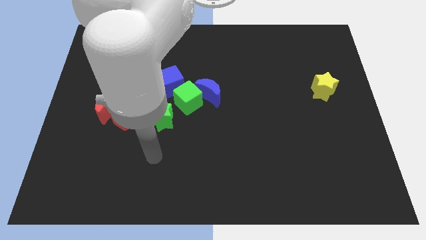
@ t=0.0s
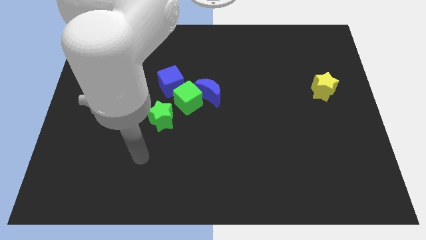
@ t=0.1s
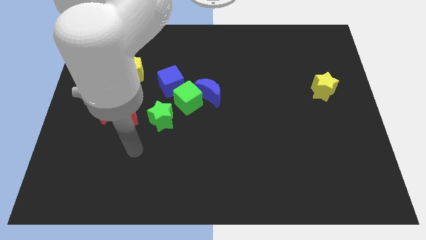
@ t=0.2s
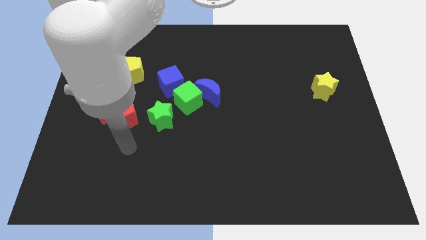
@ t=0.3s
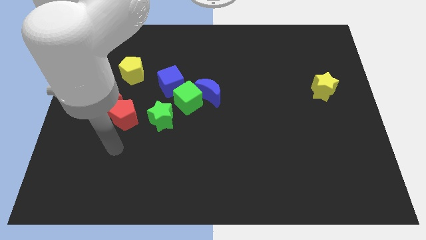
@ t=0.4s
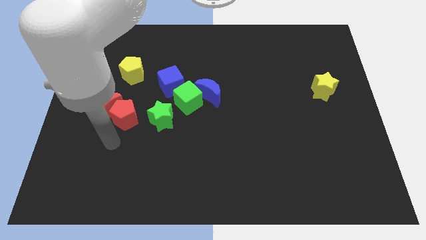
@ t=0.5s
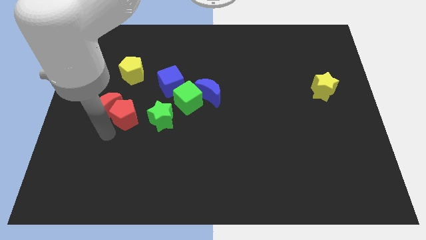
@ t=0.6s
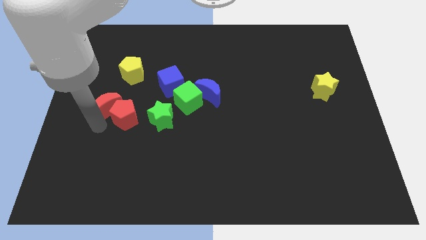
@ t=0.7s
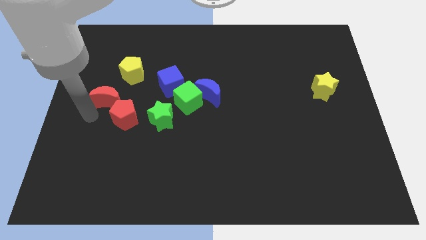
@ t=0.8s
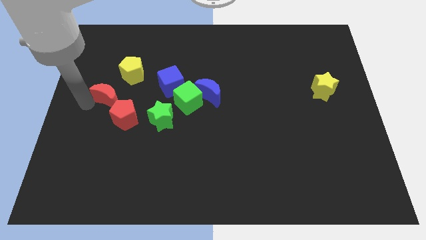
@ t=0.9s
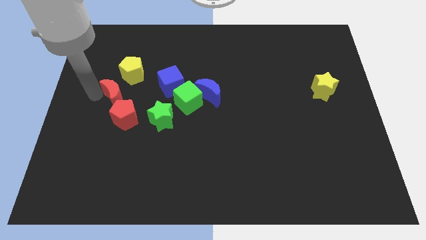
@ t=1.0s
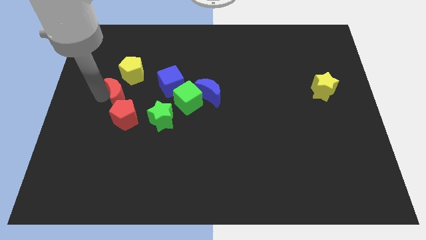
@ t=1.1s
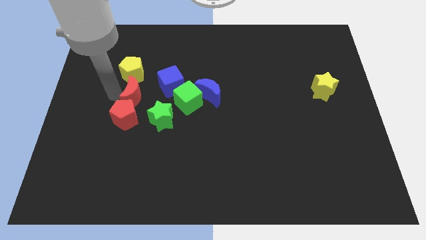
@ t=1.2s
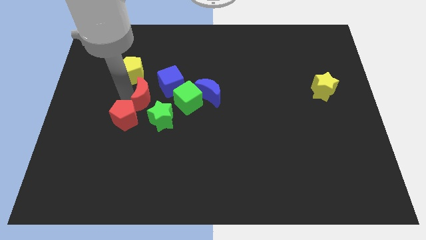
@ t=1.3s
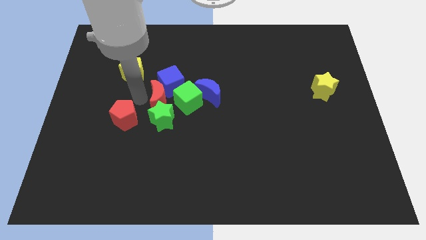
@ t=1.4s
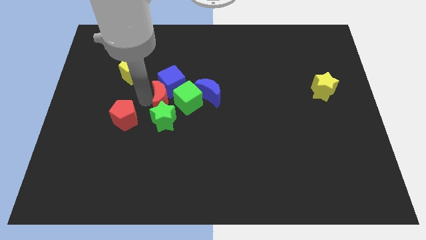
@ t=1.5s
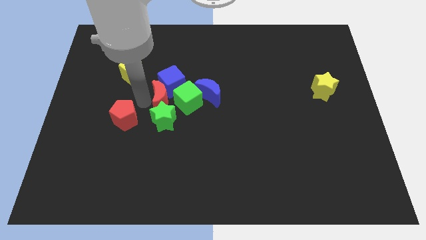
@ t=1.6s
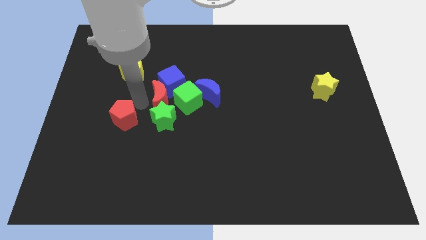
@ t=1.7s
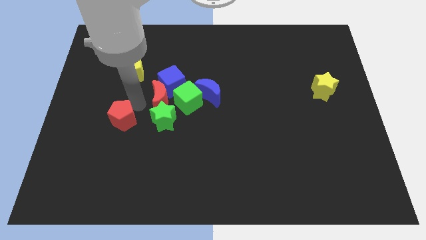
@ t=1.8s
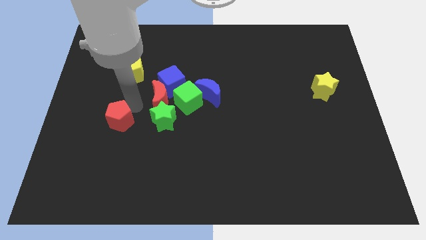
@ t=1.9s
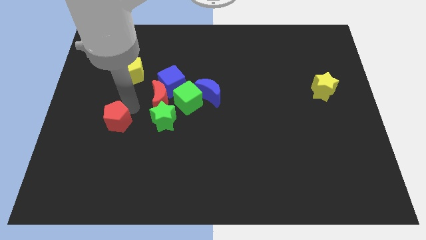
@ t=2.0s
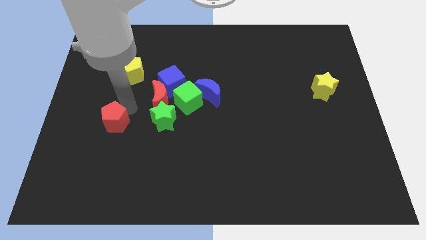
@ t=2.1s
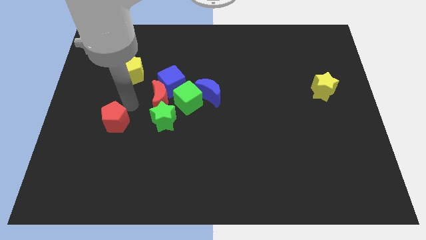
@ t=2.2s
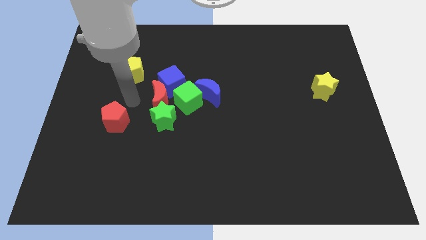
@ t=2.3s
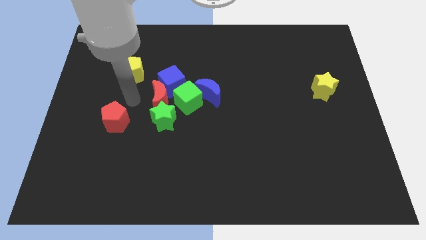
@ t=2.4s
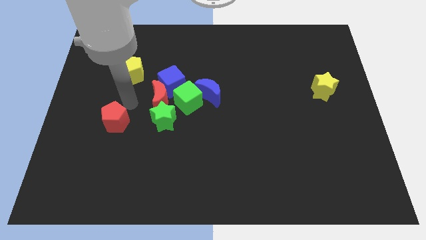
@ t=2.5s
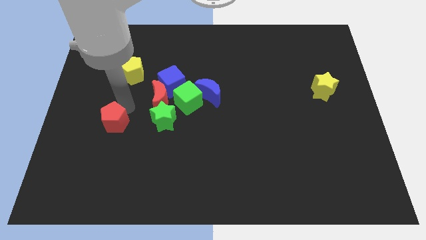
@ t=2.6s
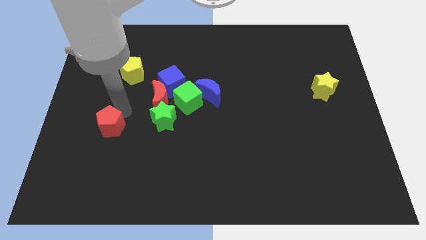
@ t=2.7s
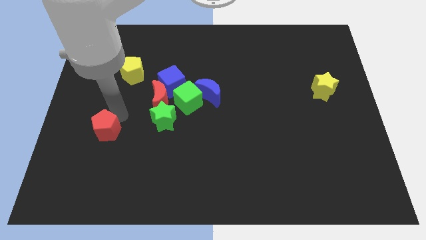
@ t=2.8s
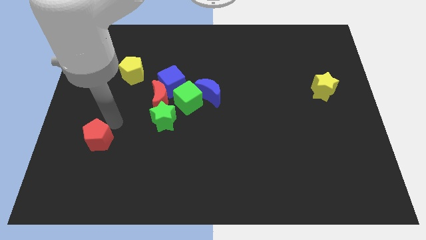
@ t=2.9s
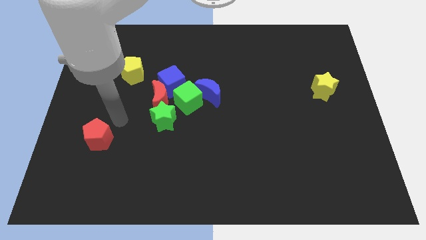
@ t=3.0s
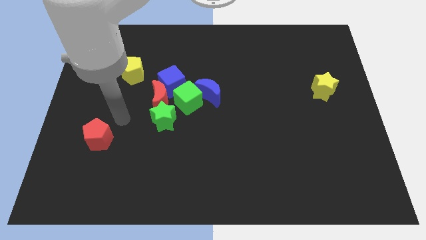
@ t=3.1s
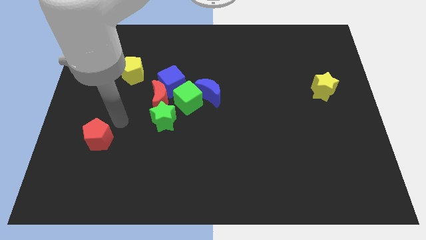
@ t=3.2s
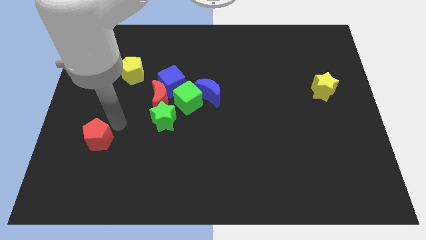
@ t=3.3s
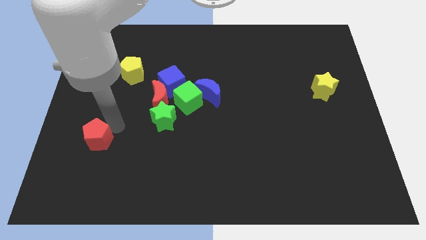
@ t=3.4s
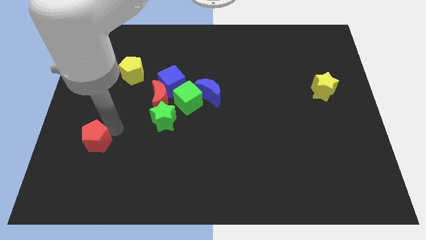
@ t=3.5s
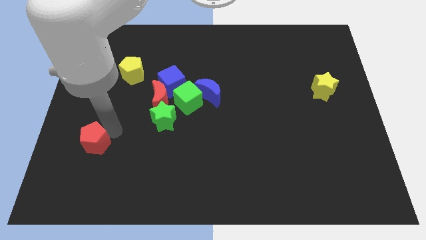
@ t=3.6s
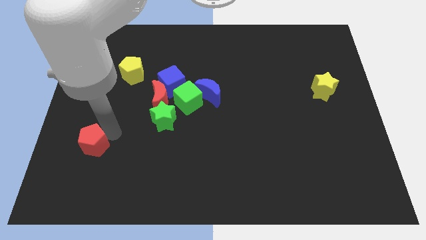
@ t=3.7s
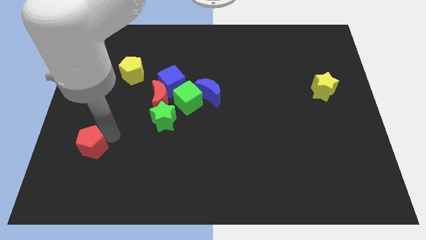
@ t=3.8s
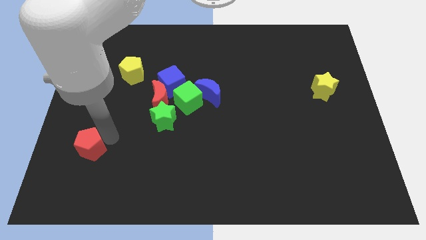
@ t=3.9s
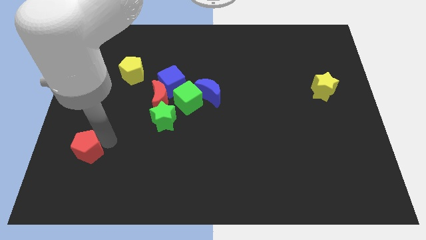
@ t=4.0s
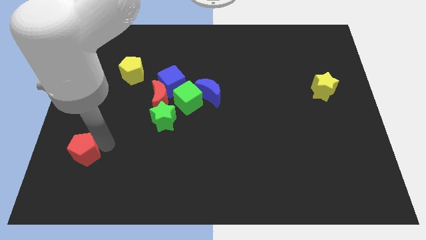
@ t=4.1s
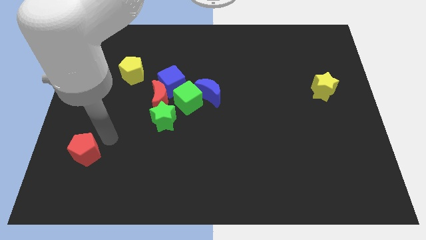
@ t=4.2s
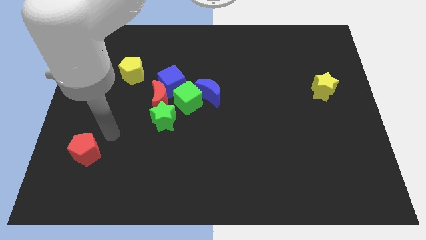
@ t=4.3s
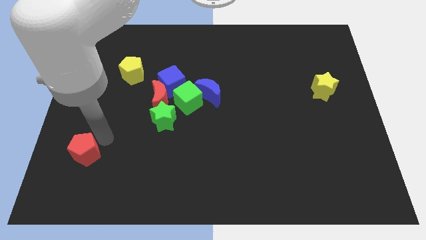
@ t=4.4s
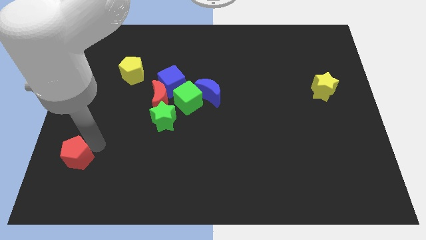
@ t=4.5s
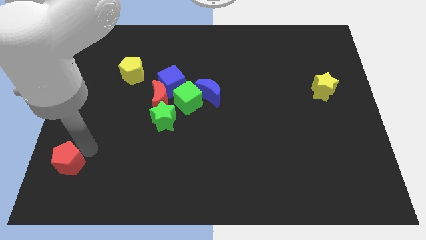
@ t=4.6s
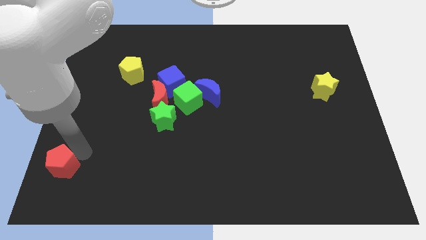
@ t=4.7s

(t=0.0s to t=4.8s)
put the red pentagon to the lower left corner

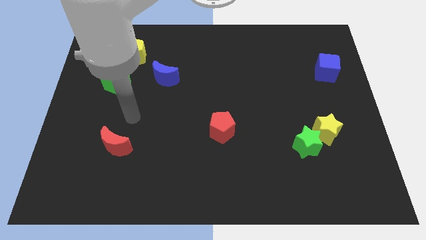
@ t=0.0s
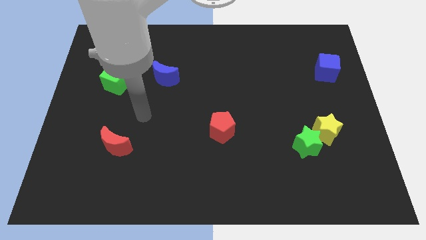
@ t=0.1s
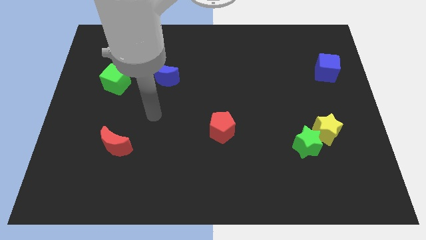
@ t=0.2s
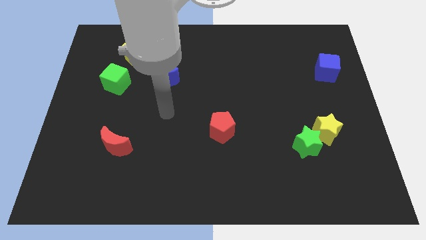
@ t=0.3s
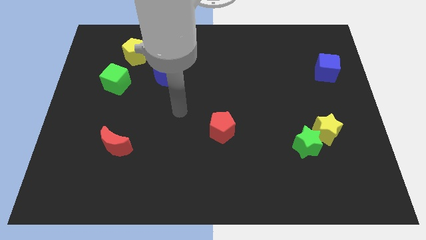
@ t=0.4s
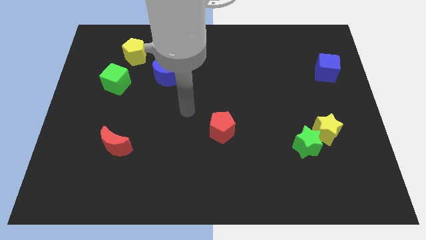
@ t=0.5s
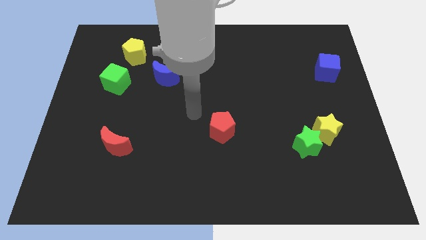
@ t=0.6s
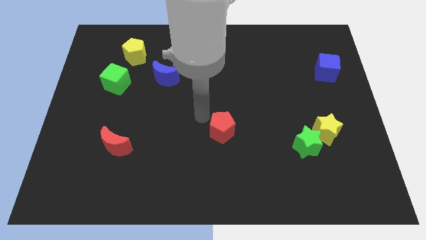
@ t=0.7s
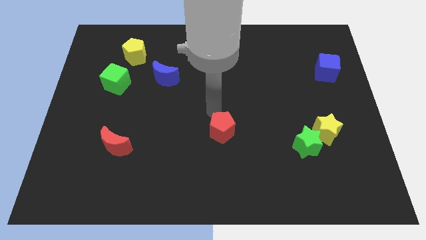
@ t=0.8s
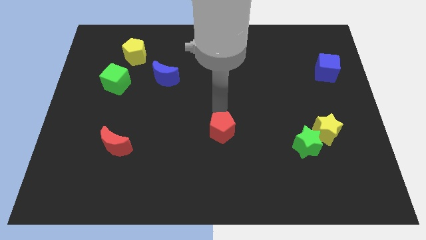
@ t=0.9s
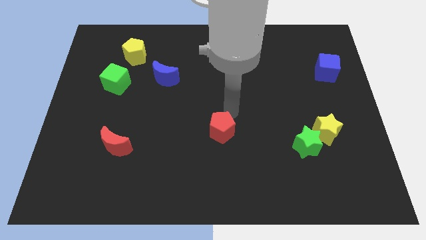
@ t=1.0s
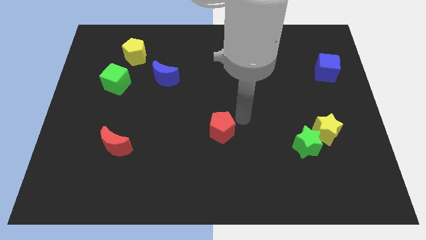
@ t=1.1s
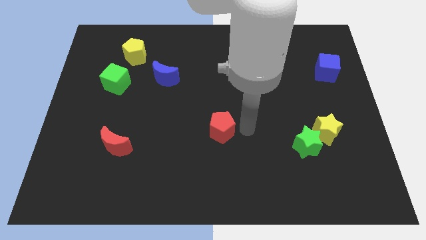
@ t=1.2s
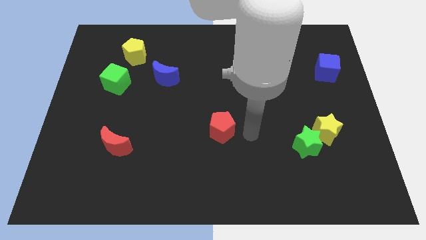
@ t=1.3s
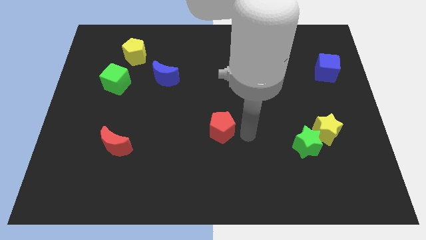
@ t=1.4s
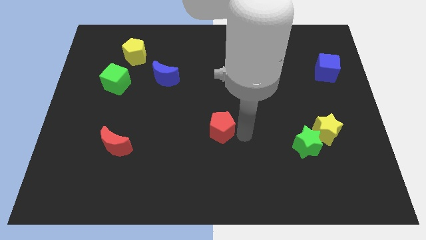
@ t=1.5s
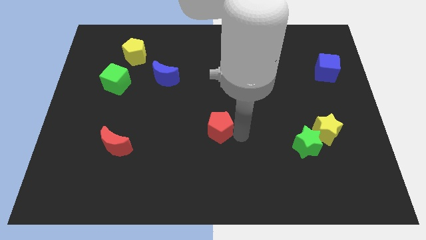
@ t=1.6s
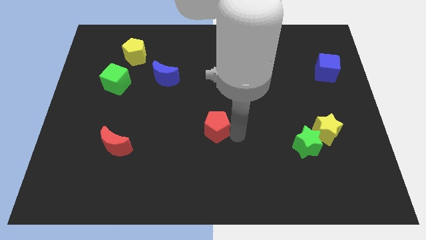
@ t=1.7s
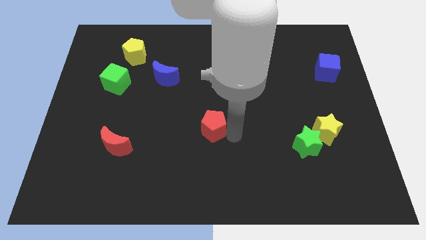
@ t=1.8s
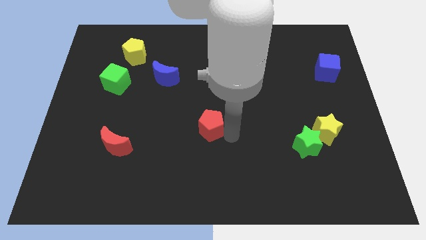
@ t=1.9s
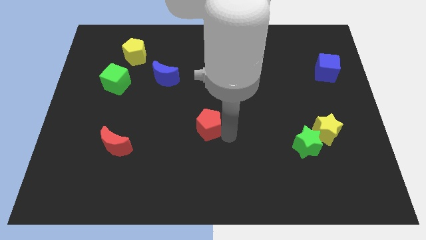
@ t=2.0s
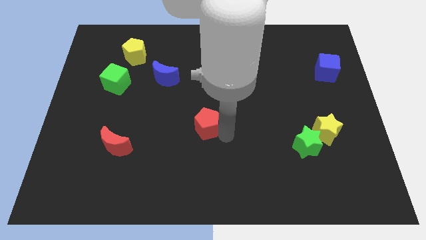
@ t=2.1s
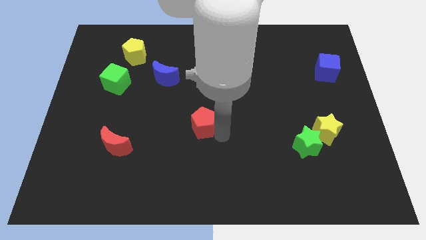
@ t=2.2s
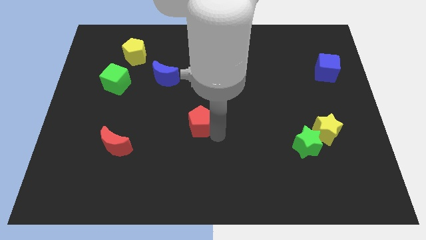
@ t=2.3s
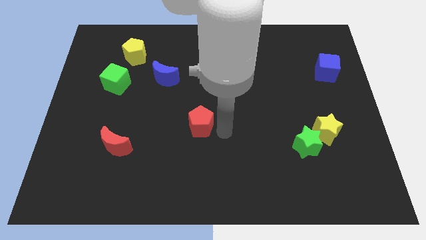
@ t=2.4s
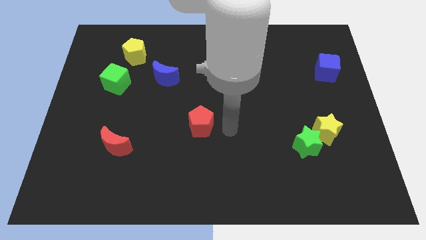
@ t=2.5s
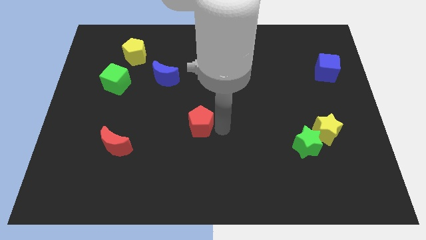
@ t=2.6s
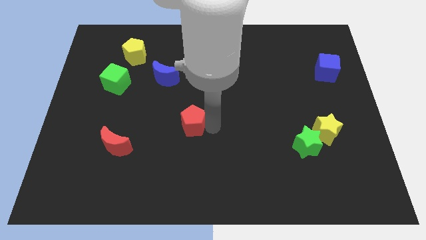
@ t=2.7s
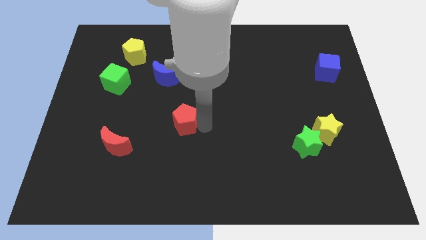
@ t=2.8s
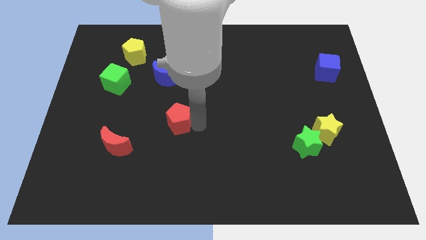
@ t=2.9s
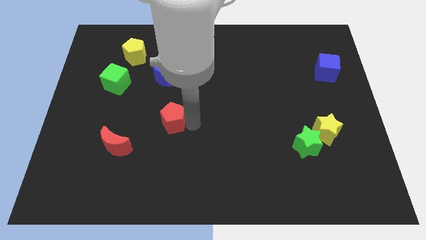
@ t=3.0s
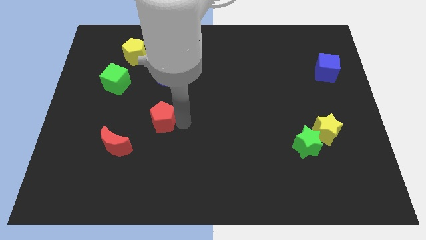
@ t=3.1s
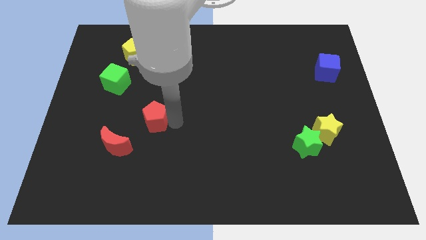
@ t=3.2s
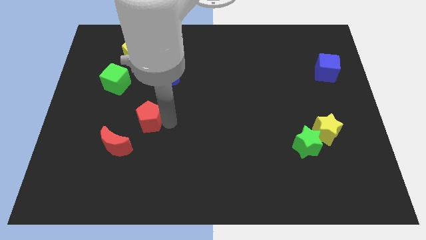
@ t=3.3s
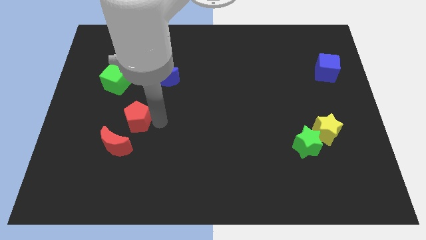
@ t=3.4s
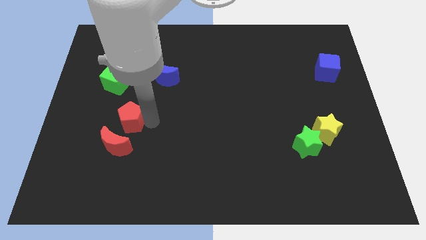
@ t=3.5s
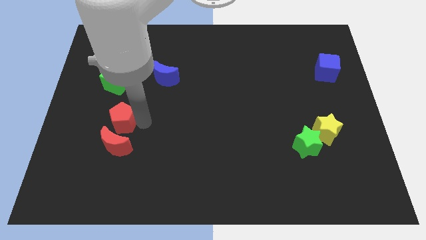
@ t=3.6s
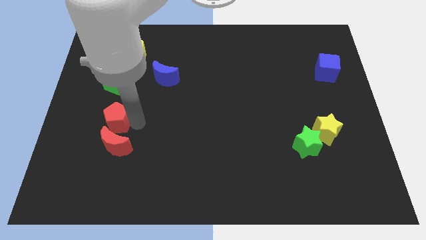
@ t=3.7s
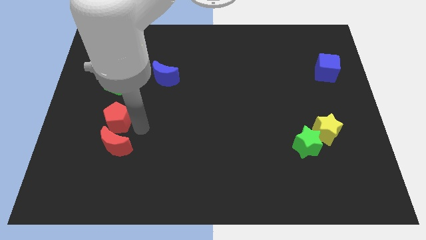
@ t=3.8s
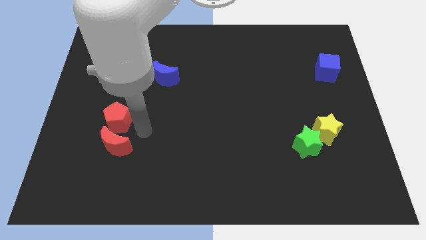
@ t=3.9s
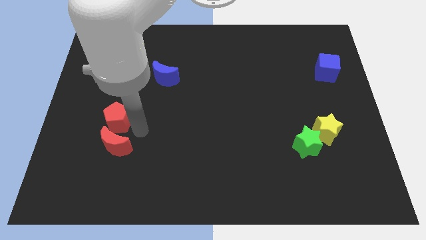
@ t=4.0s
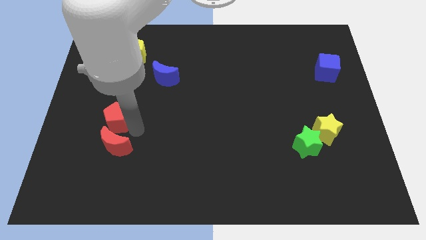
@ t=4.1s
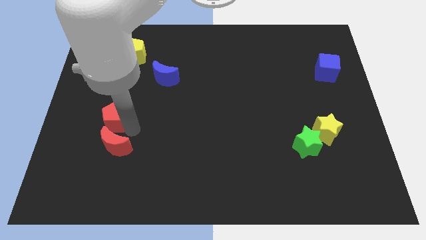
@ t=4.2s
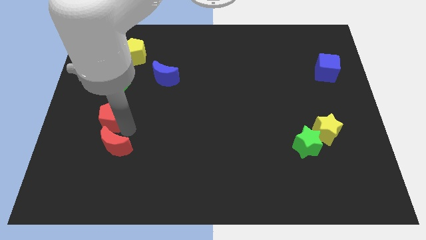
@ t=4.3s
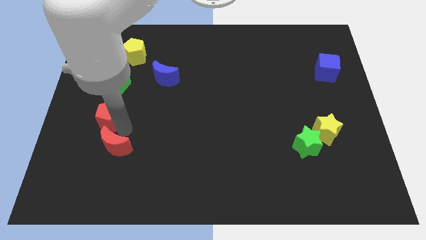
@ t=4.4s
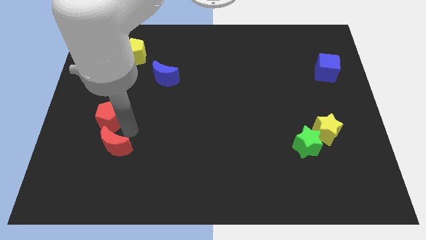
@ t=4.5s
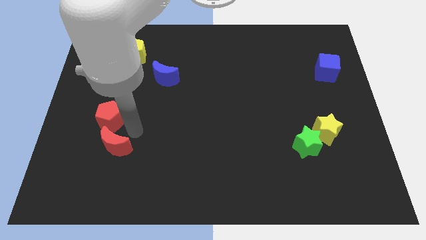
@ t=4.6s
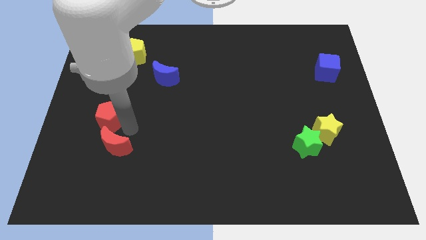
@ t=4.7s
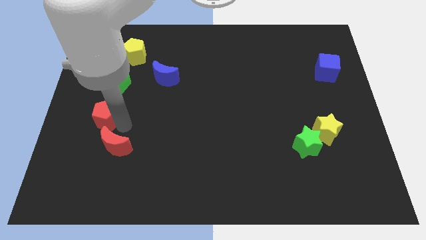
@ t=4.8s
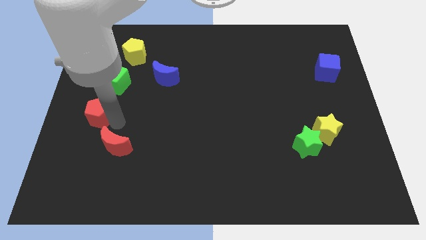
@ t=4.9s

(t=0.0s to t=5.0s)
move the red pentagon to the left side
